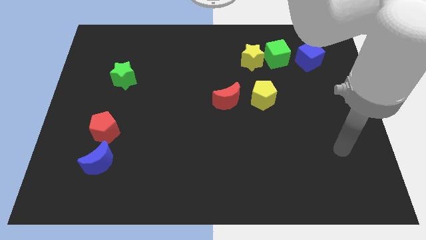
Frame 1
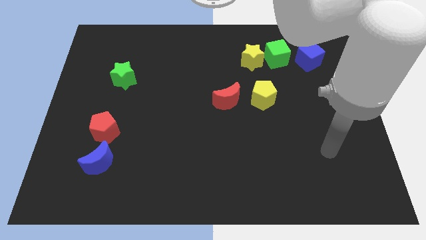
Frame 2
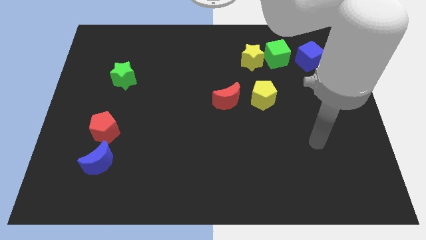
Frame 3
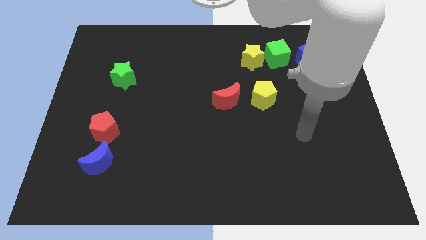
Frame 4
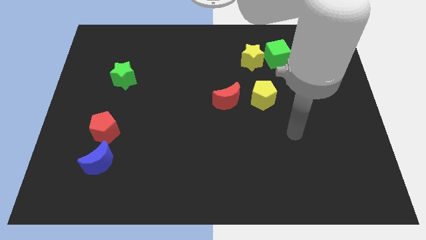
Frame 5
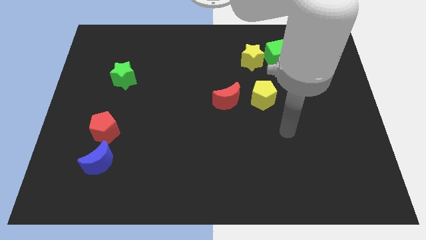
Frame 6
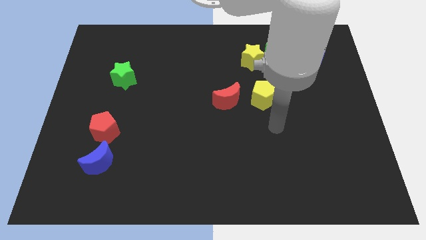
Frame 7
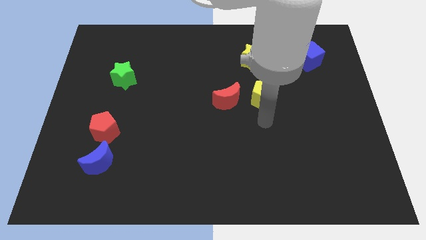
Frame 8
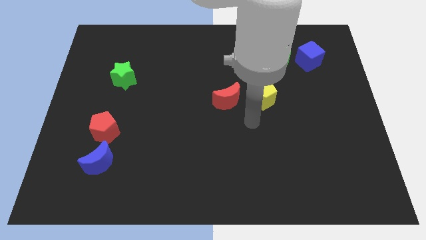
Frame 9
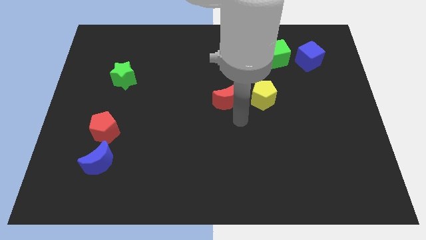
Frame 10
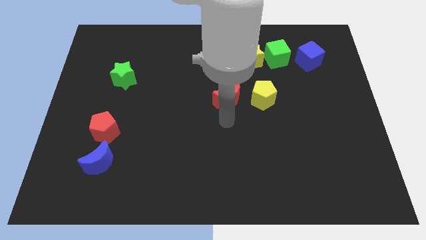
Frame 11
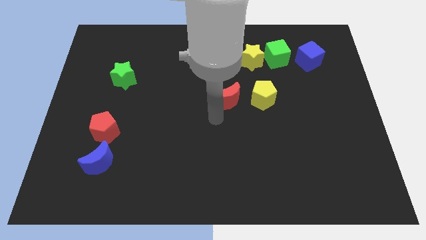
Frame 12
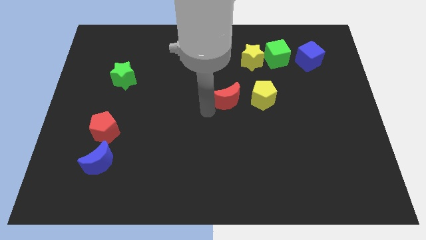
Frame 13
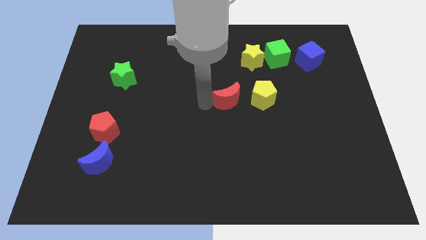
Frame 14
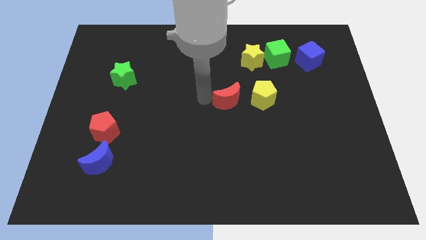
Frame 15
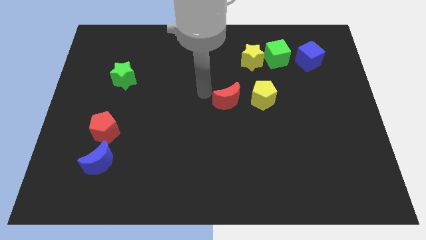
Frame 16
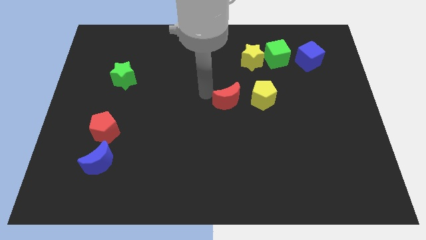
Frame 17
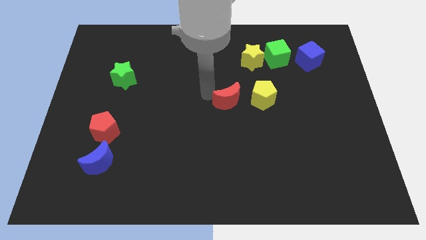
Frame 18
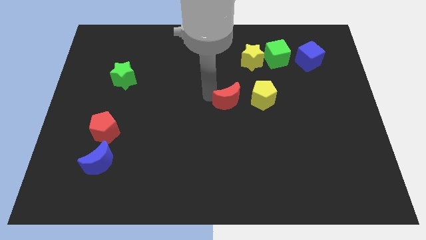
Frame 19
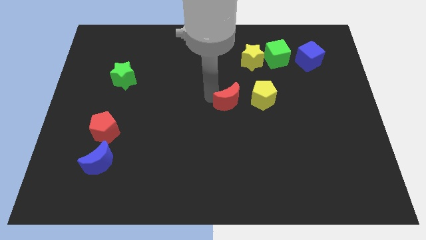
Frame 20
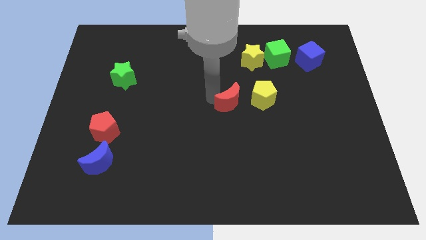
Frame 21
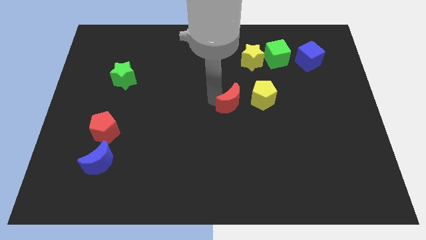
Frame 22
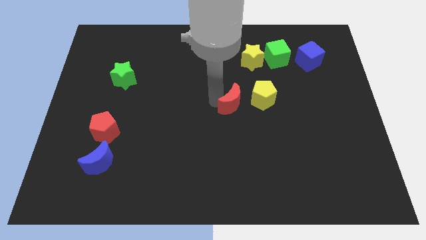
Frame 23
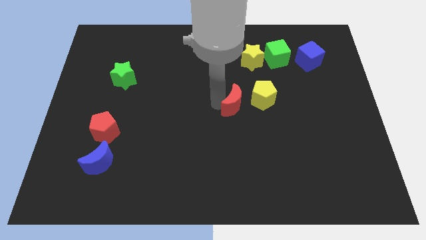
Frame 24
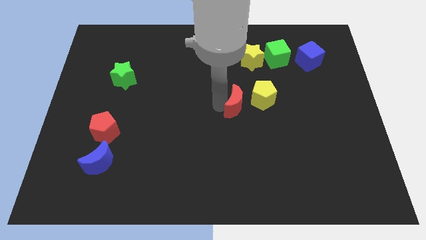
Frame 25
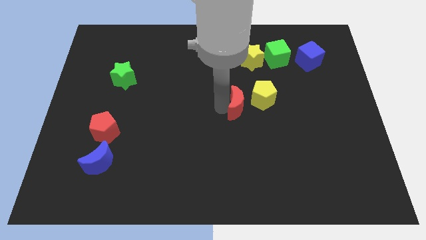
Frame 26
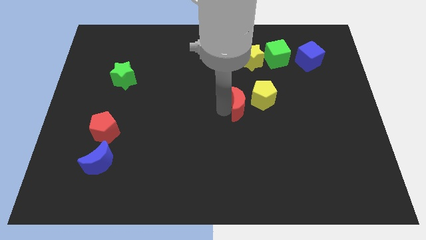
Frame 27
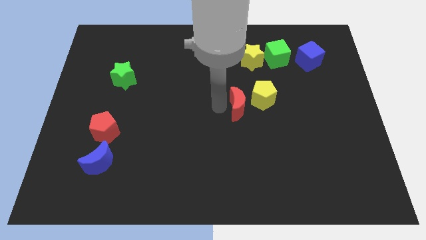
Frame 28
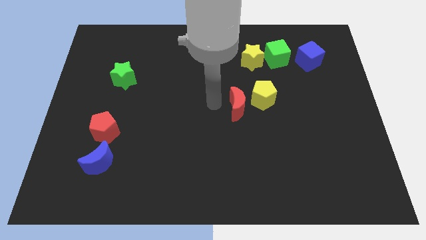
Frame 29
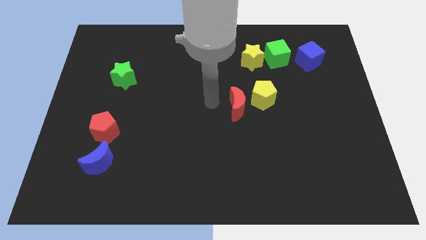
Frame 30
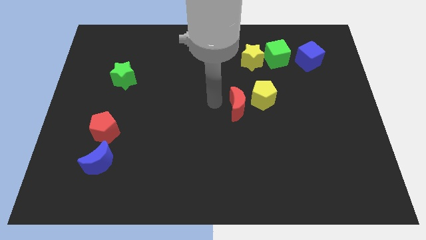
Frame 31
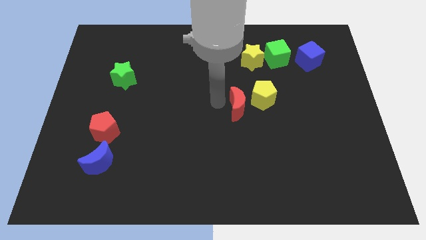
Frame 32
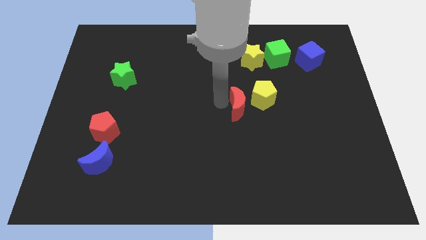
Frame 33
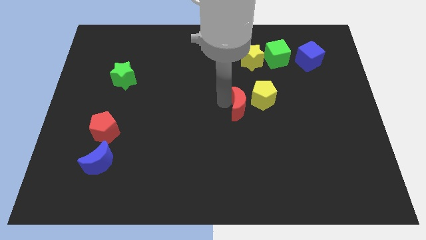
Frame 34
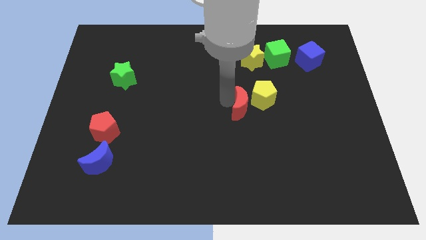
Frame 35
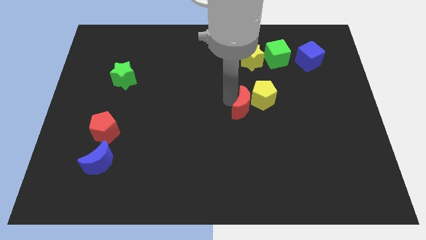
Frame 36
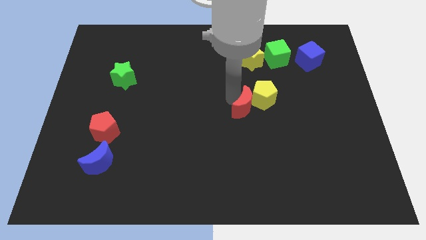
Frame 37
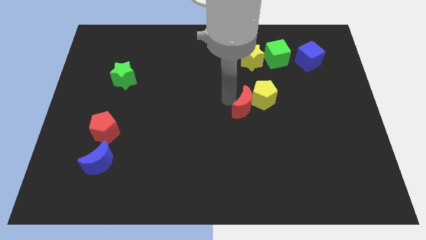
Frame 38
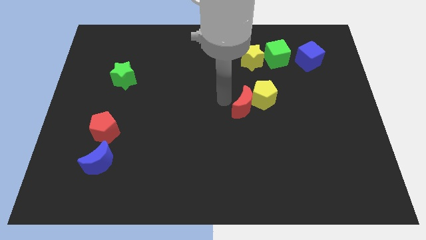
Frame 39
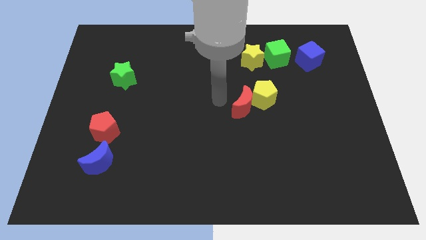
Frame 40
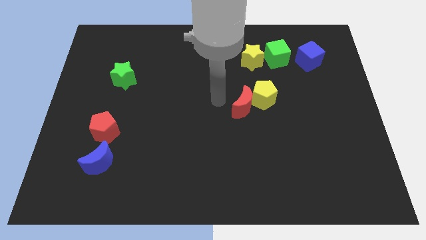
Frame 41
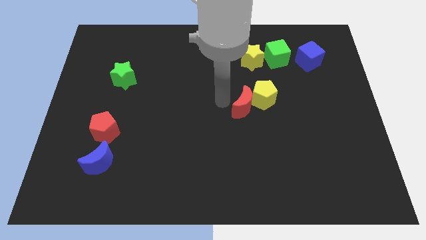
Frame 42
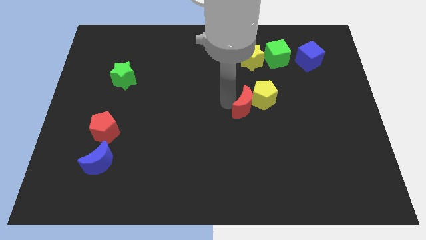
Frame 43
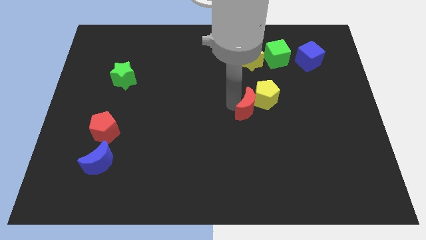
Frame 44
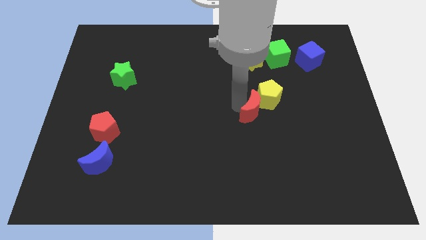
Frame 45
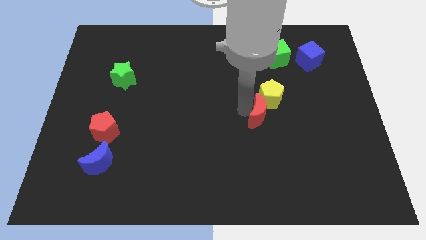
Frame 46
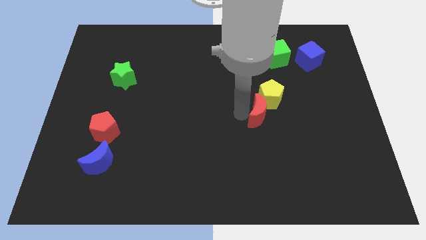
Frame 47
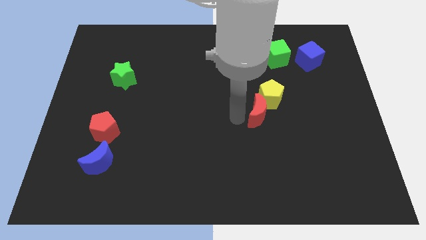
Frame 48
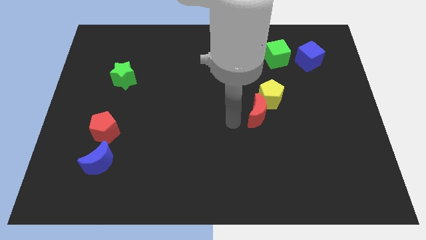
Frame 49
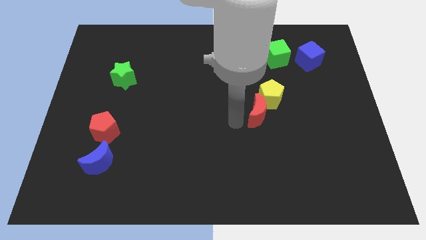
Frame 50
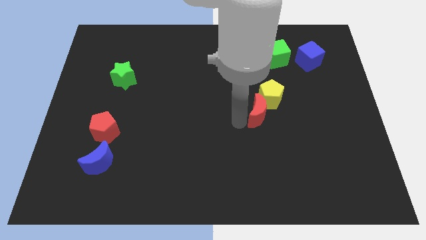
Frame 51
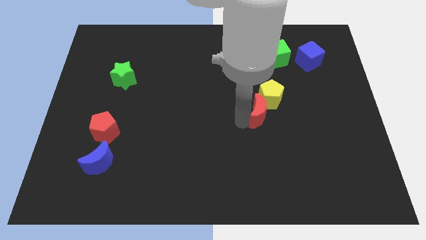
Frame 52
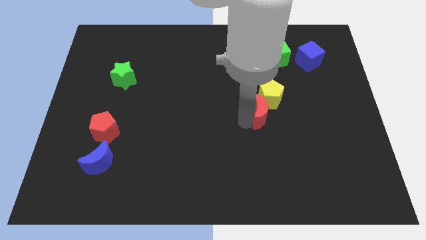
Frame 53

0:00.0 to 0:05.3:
slide the red moon somewhat to the right

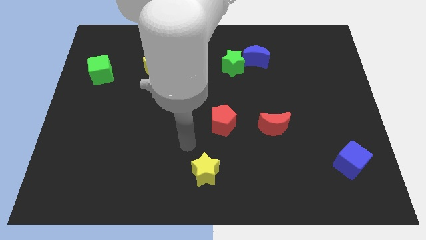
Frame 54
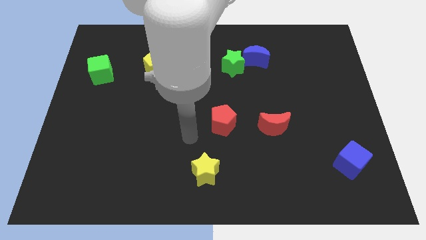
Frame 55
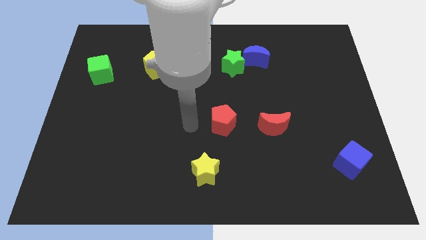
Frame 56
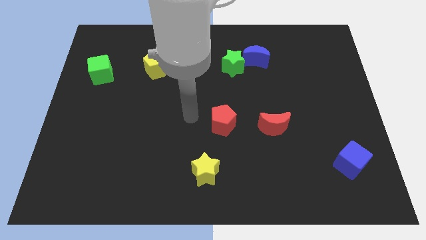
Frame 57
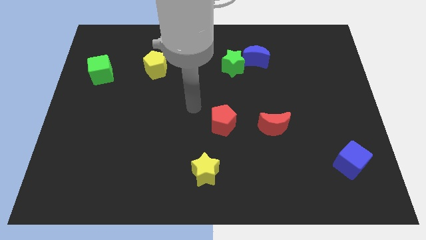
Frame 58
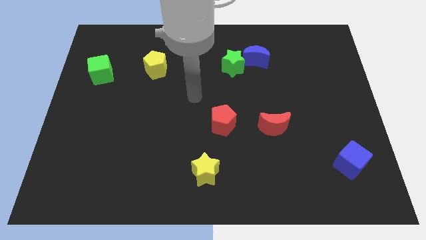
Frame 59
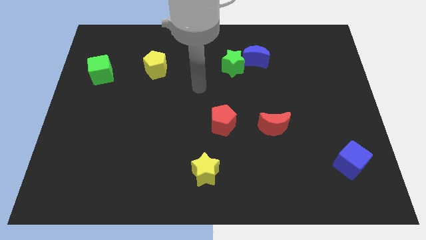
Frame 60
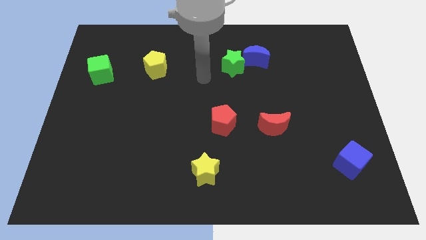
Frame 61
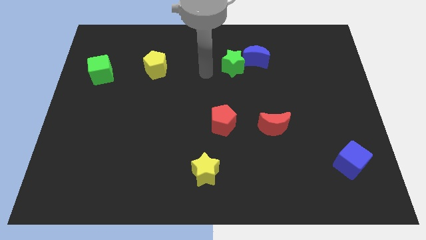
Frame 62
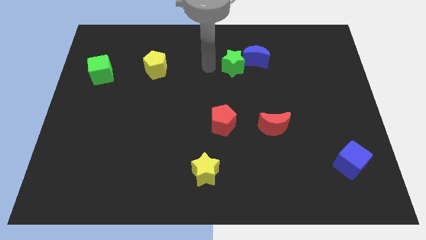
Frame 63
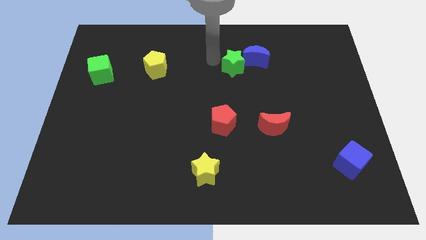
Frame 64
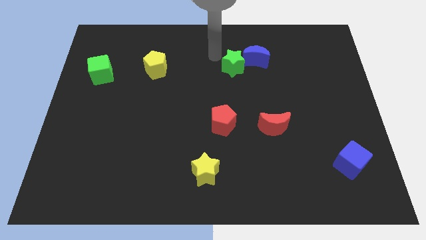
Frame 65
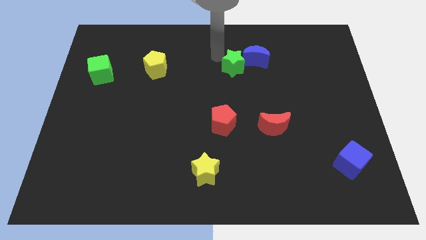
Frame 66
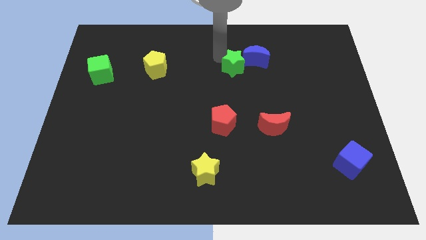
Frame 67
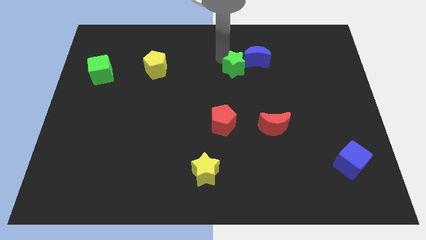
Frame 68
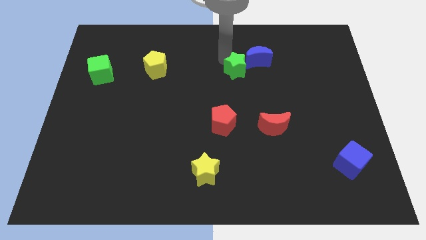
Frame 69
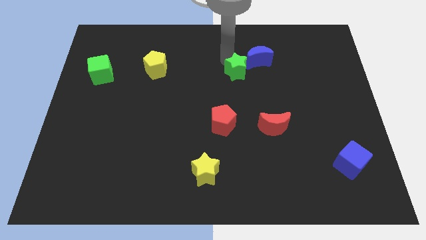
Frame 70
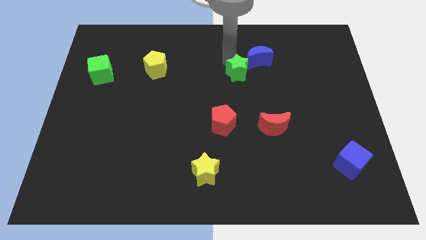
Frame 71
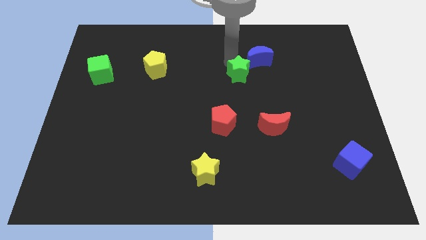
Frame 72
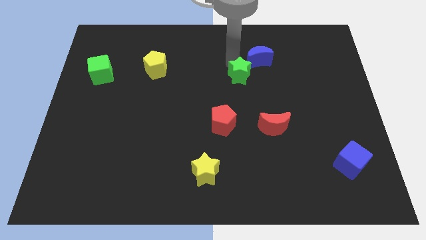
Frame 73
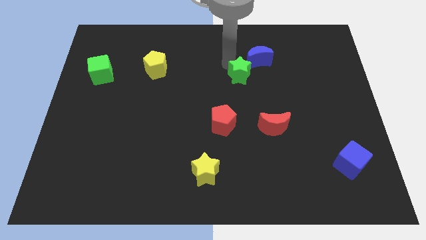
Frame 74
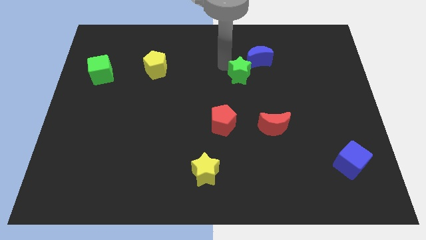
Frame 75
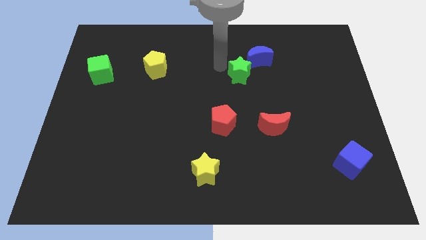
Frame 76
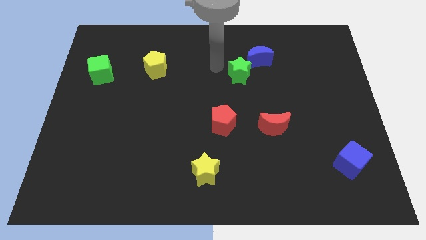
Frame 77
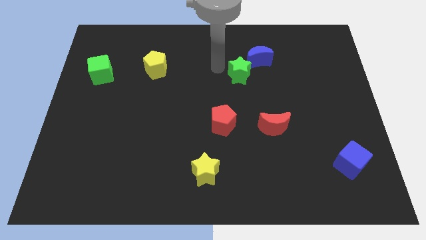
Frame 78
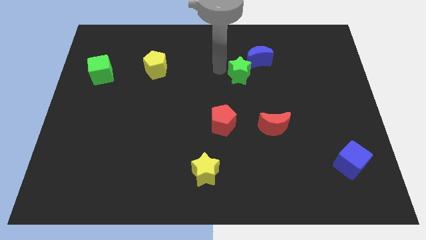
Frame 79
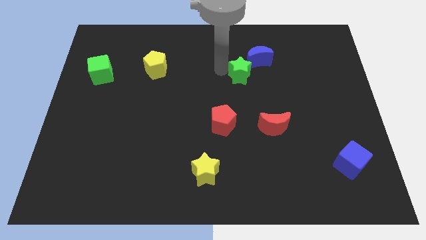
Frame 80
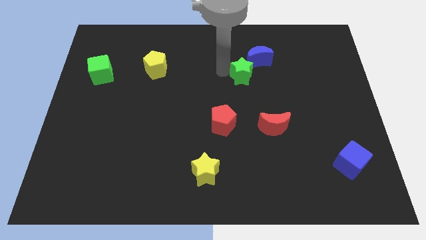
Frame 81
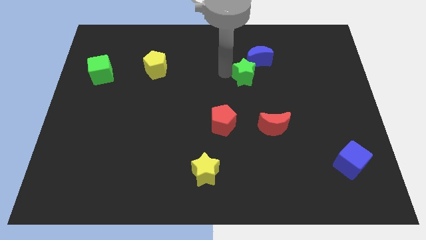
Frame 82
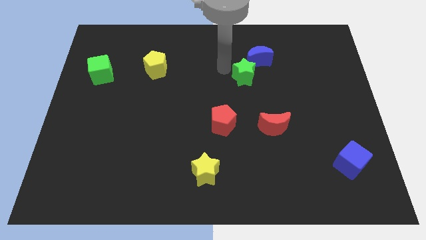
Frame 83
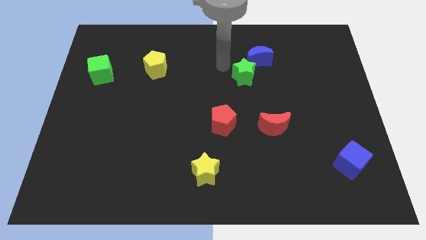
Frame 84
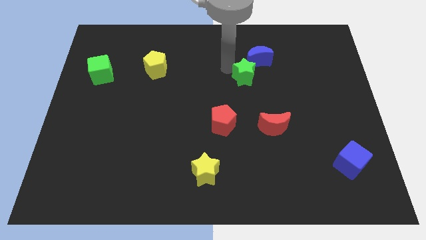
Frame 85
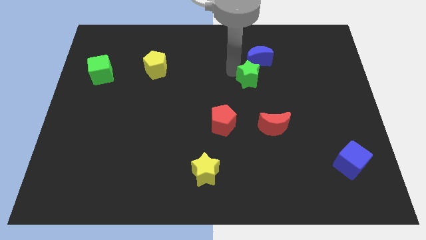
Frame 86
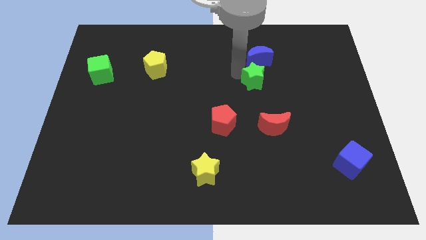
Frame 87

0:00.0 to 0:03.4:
push the green star a little bit diagonally downwards and right
